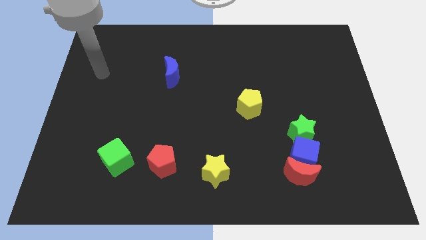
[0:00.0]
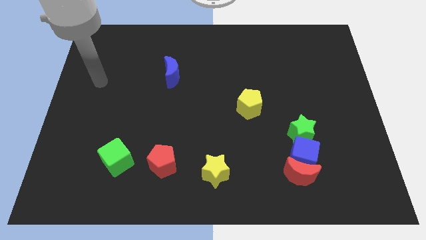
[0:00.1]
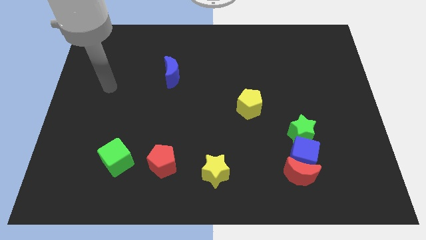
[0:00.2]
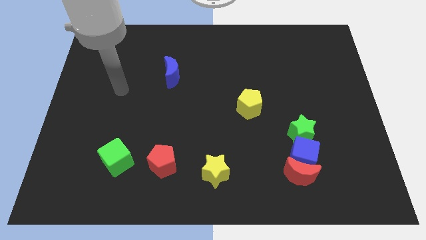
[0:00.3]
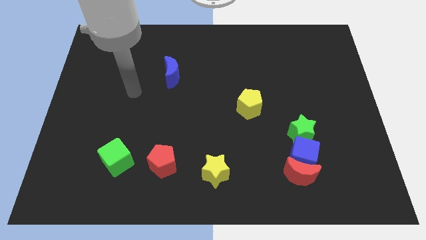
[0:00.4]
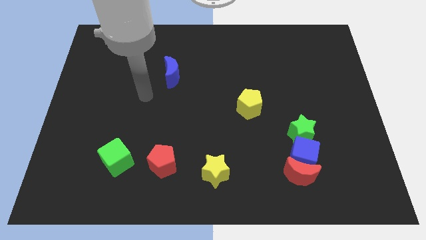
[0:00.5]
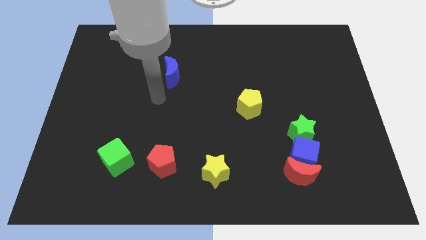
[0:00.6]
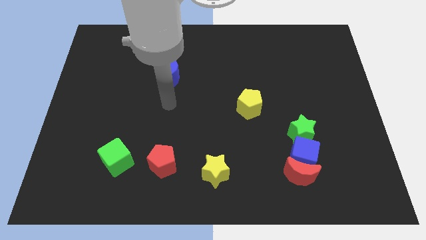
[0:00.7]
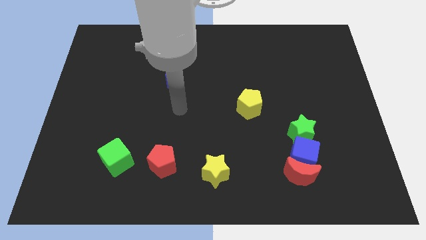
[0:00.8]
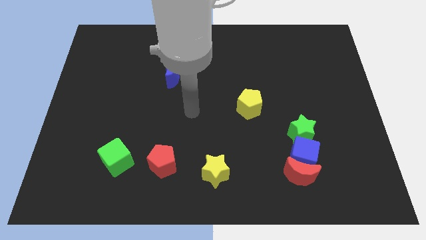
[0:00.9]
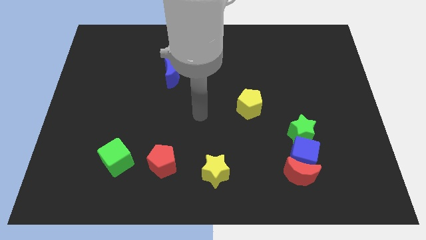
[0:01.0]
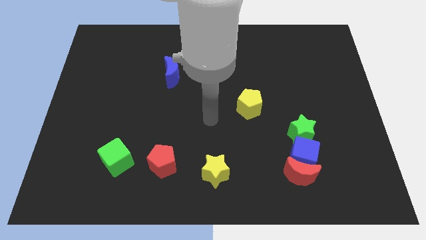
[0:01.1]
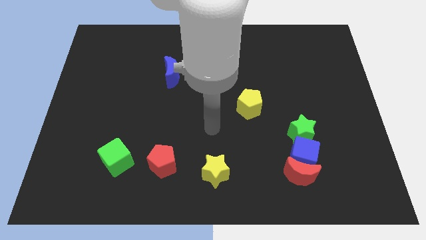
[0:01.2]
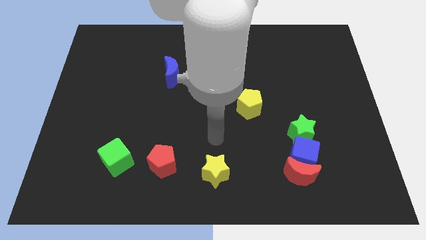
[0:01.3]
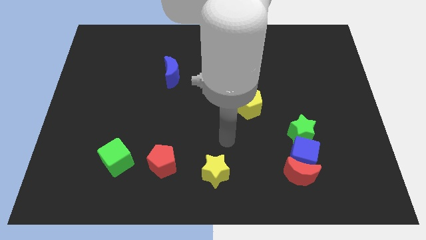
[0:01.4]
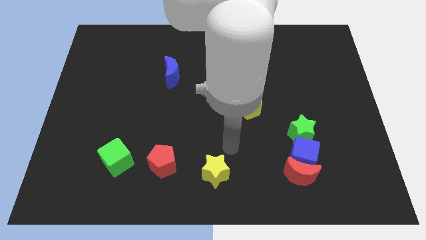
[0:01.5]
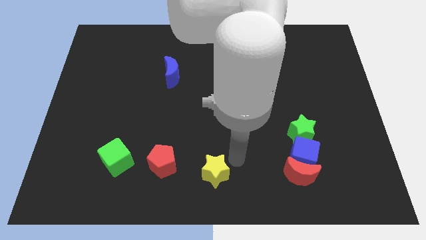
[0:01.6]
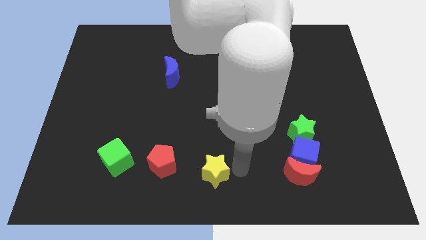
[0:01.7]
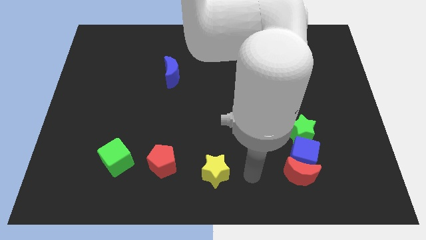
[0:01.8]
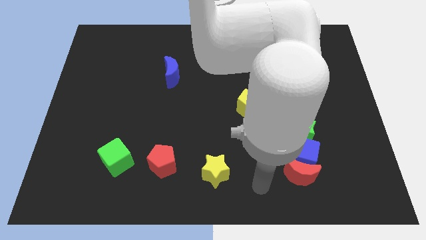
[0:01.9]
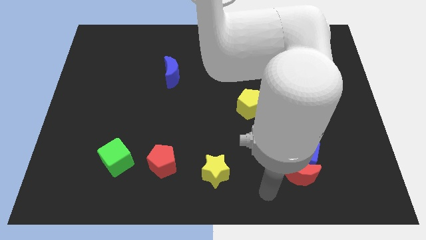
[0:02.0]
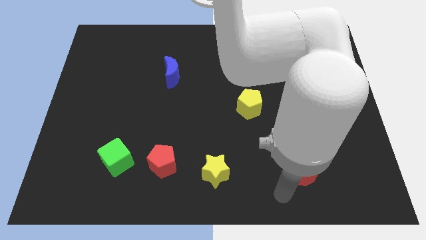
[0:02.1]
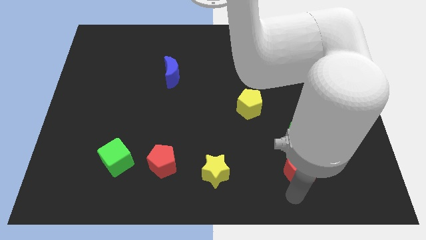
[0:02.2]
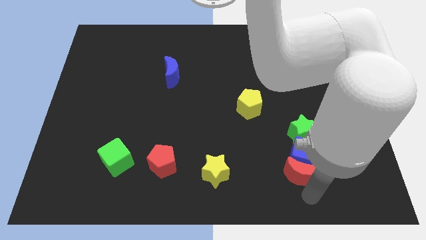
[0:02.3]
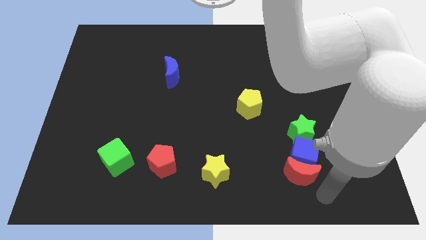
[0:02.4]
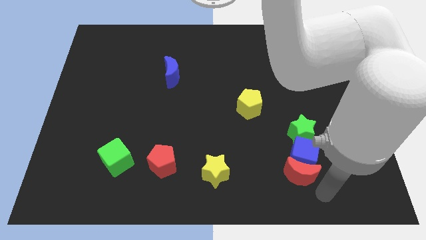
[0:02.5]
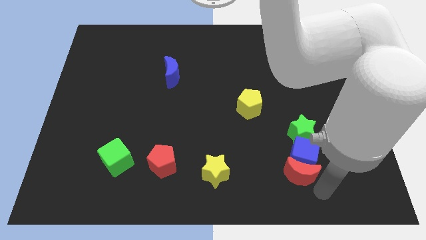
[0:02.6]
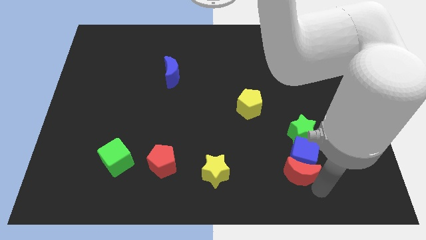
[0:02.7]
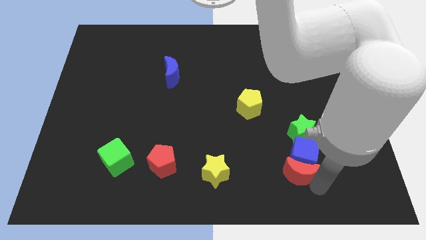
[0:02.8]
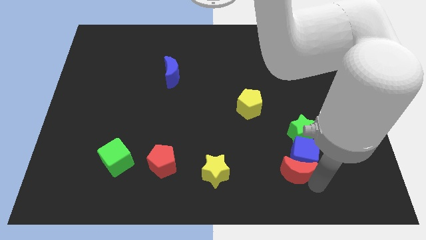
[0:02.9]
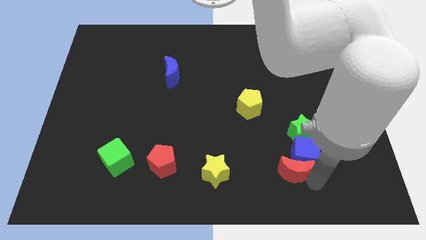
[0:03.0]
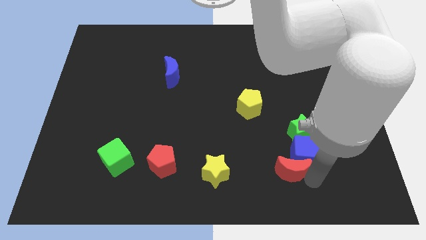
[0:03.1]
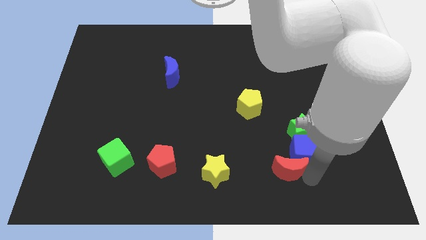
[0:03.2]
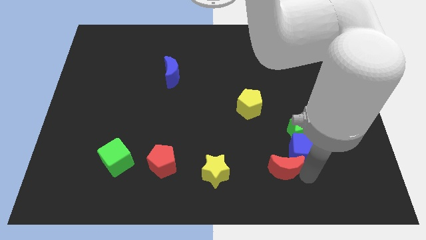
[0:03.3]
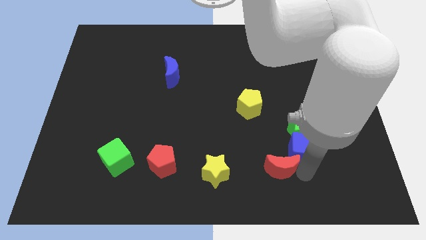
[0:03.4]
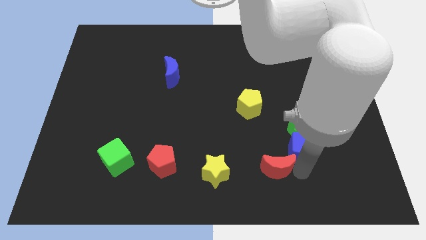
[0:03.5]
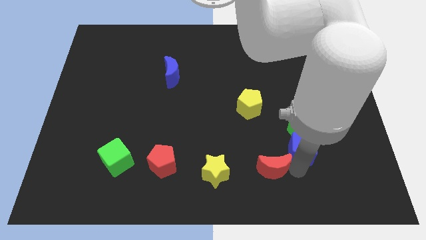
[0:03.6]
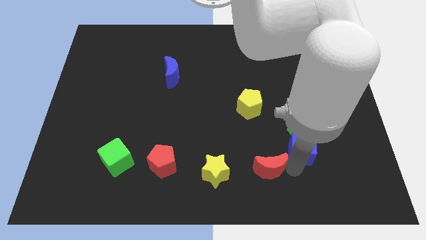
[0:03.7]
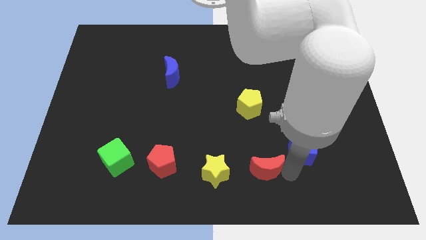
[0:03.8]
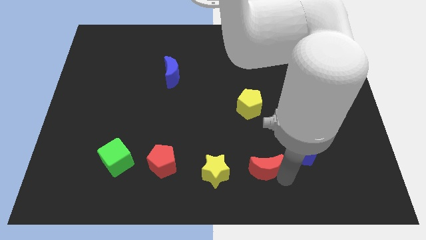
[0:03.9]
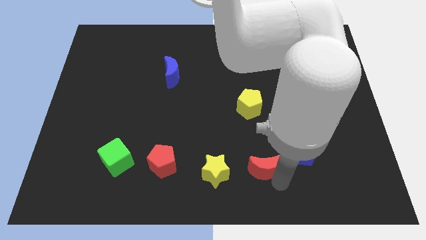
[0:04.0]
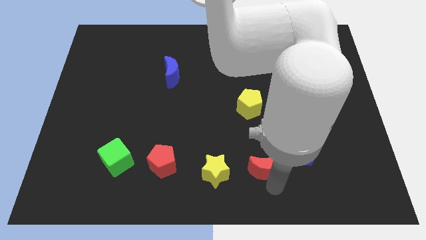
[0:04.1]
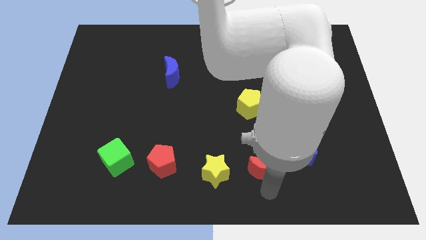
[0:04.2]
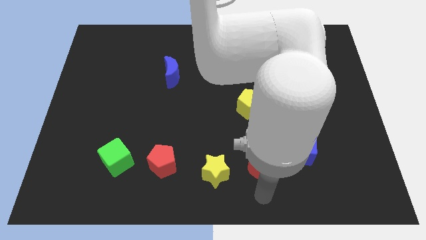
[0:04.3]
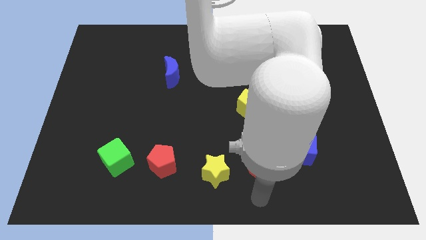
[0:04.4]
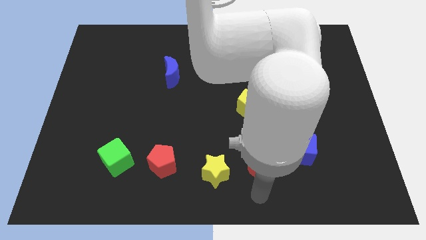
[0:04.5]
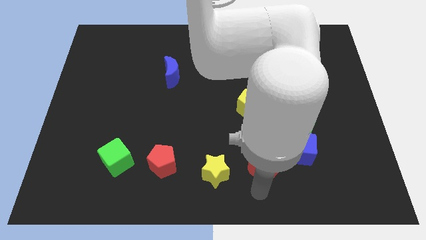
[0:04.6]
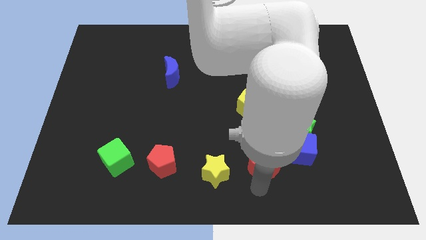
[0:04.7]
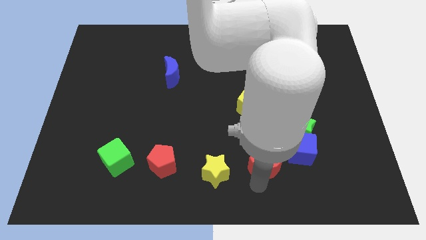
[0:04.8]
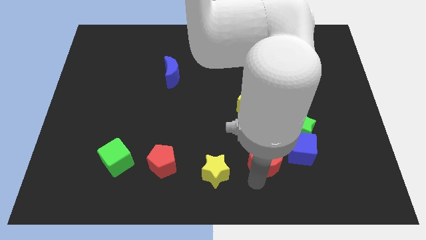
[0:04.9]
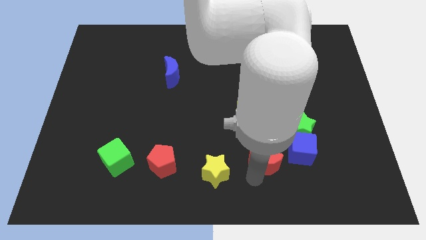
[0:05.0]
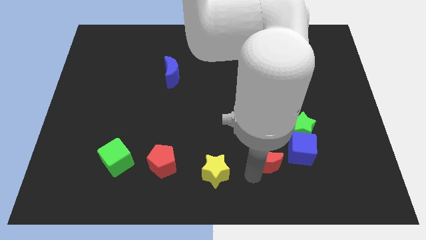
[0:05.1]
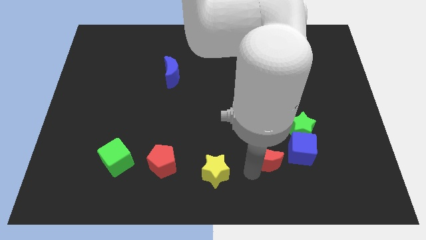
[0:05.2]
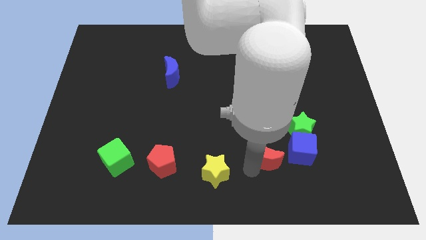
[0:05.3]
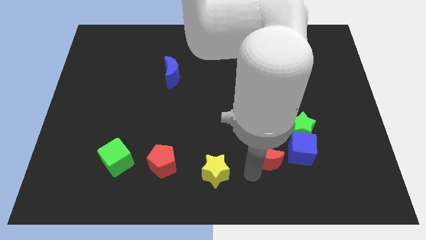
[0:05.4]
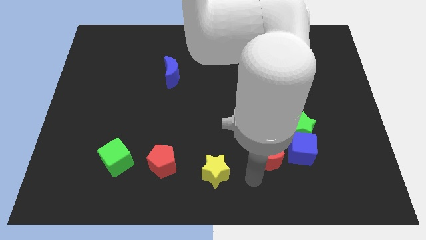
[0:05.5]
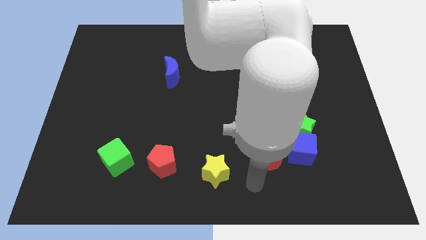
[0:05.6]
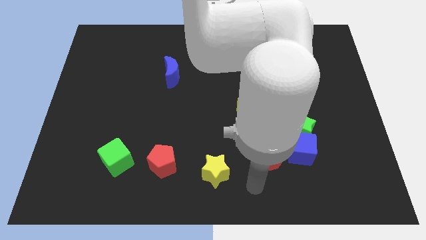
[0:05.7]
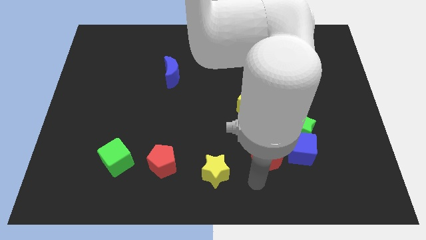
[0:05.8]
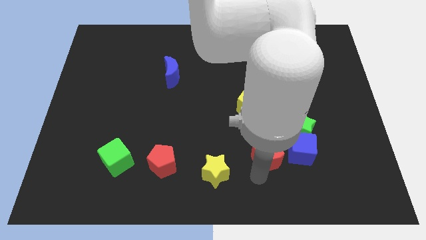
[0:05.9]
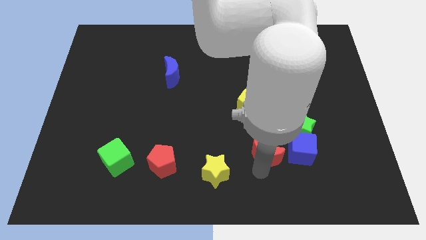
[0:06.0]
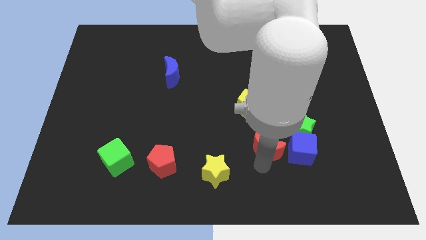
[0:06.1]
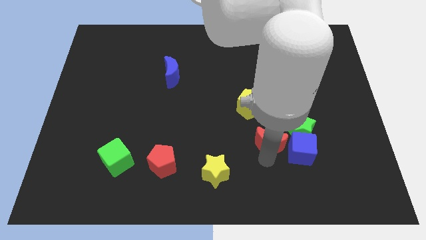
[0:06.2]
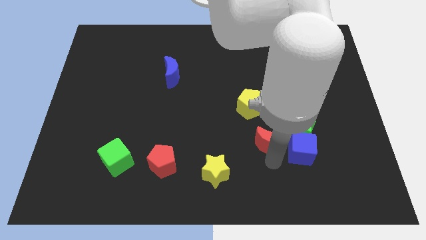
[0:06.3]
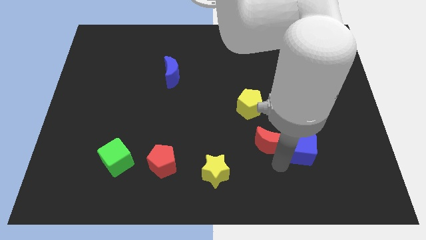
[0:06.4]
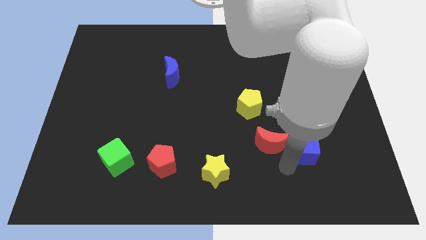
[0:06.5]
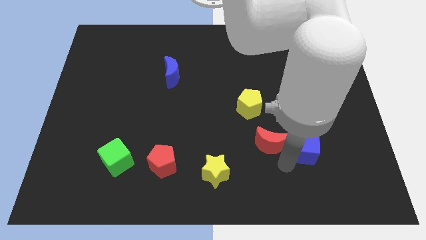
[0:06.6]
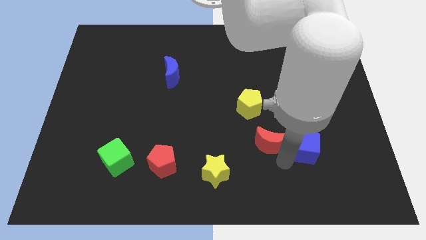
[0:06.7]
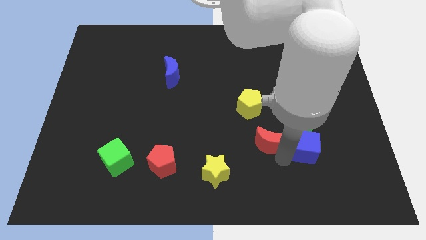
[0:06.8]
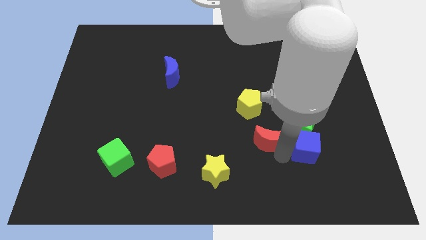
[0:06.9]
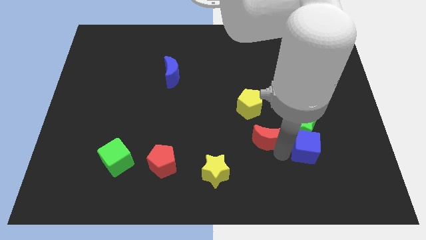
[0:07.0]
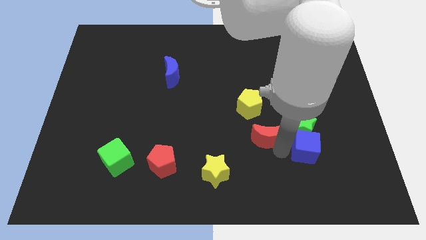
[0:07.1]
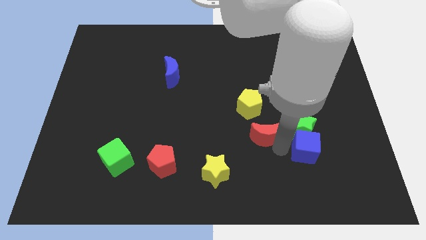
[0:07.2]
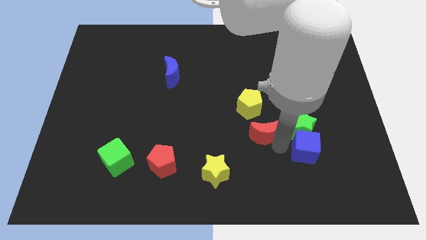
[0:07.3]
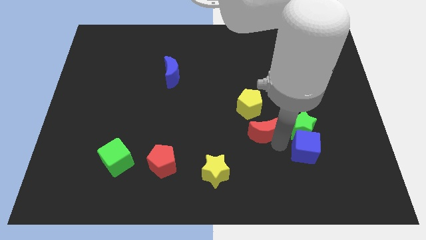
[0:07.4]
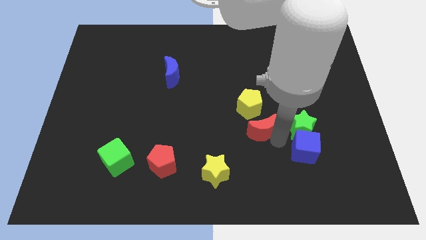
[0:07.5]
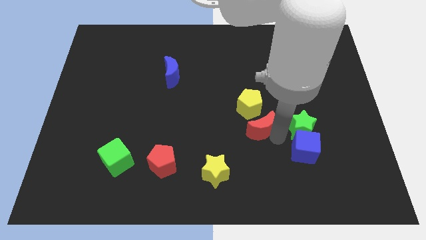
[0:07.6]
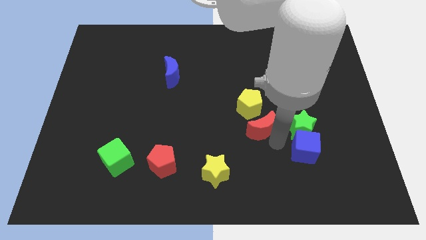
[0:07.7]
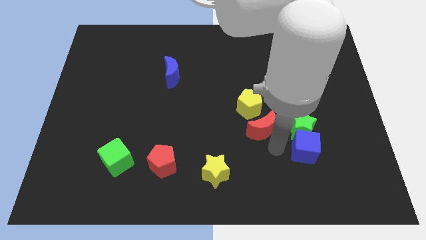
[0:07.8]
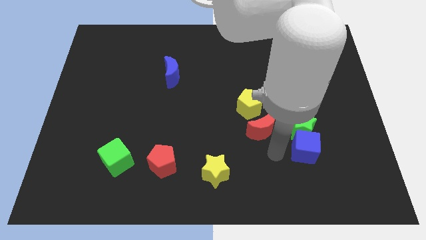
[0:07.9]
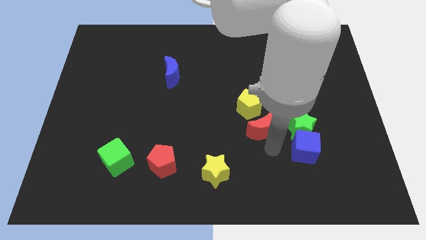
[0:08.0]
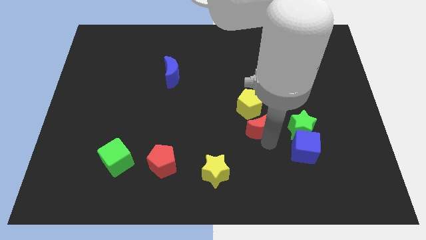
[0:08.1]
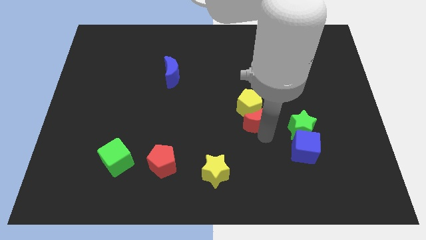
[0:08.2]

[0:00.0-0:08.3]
put the red moon close to the yellow pentagon
